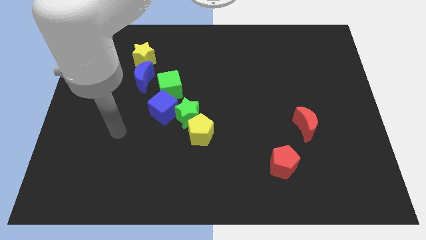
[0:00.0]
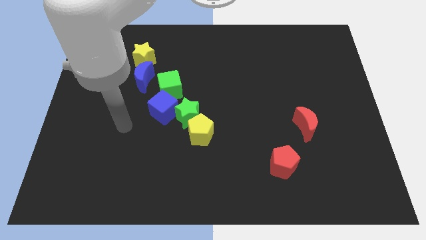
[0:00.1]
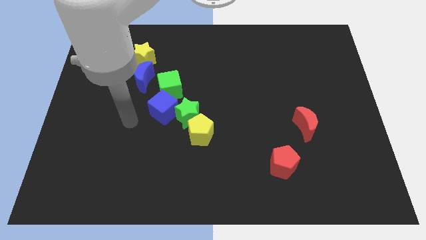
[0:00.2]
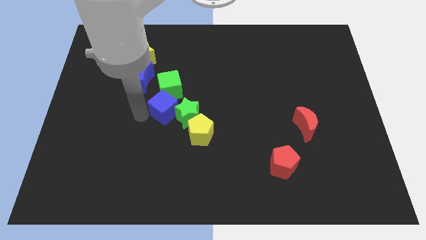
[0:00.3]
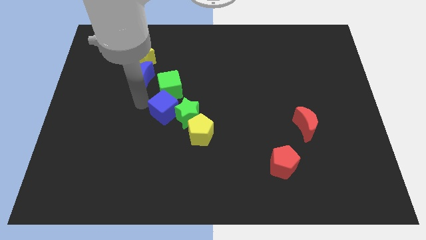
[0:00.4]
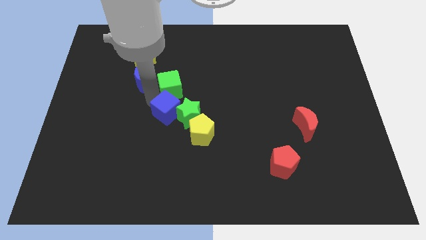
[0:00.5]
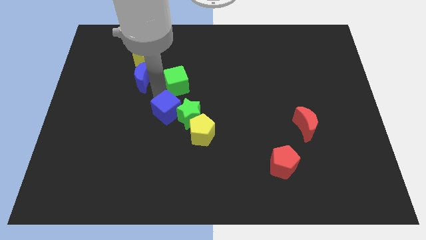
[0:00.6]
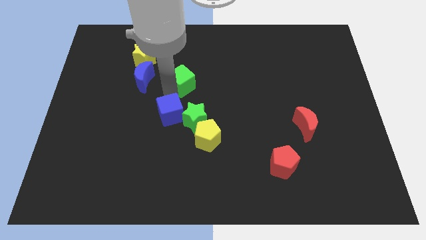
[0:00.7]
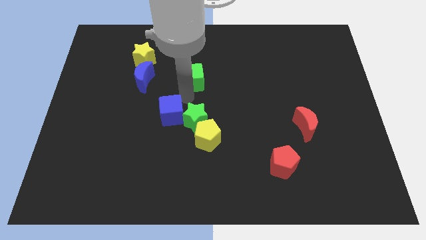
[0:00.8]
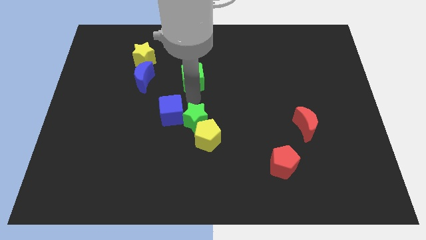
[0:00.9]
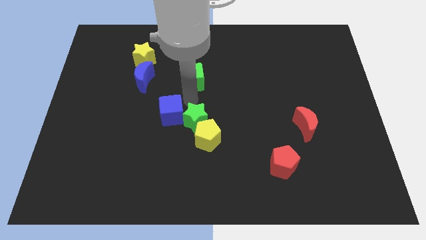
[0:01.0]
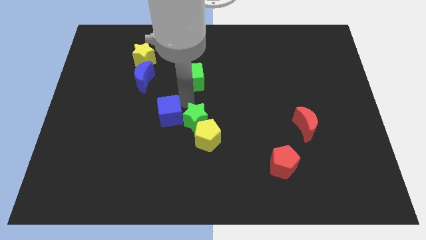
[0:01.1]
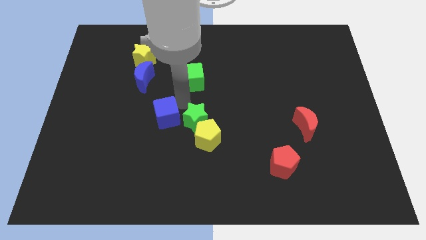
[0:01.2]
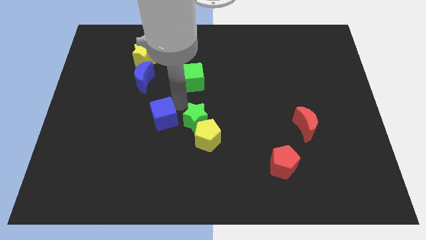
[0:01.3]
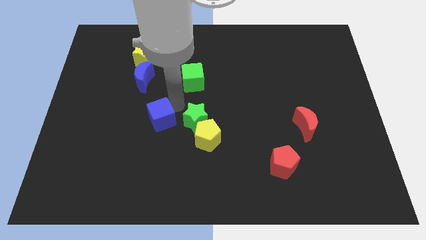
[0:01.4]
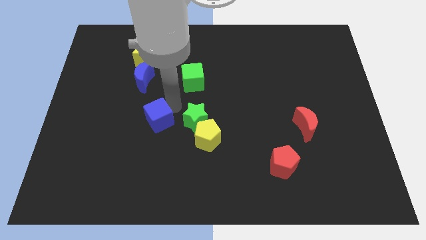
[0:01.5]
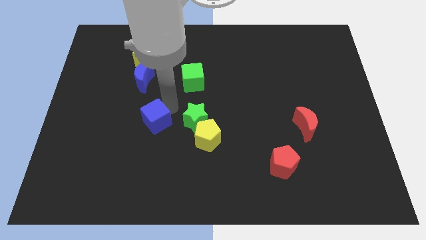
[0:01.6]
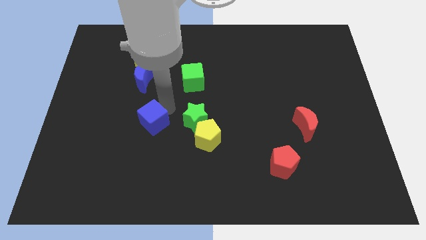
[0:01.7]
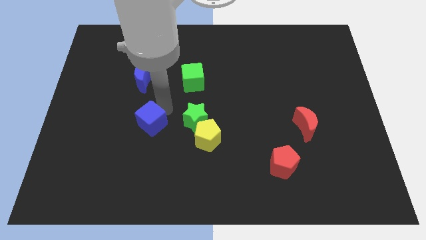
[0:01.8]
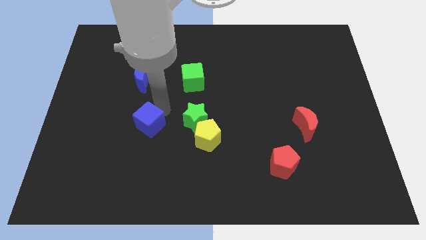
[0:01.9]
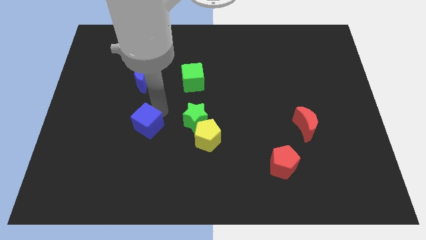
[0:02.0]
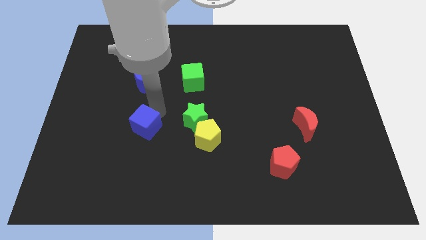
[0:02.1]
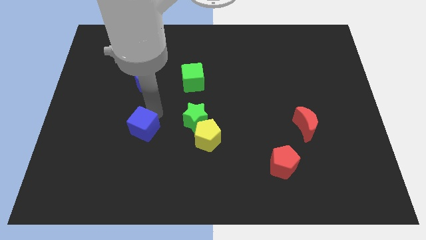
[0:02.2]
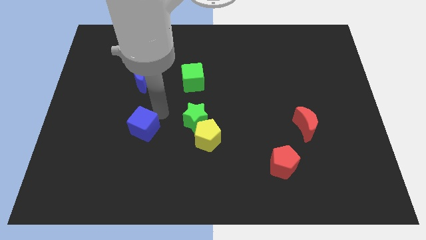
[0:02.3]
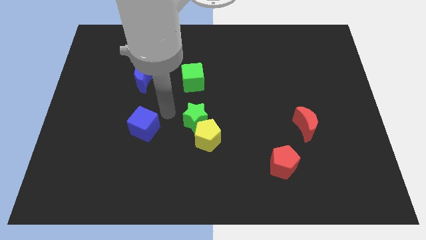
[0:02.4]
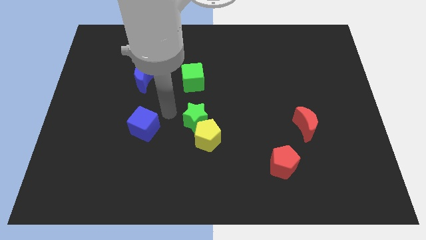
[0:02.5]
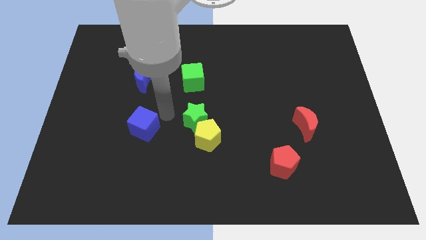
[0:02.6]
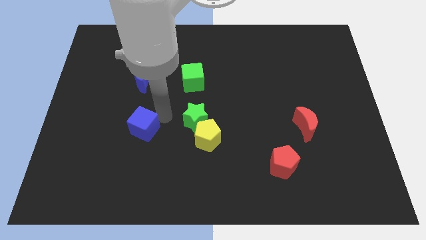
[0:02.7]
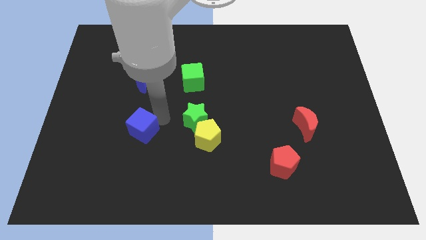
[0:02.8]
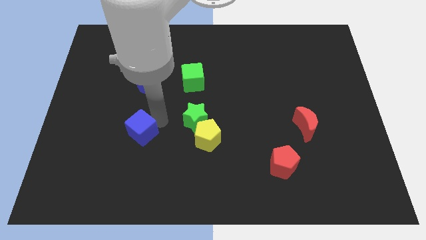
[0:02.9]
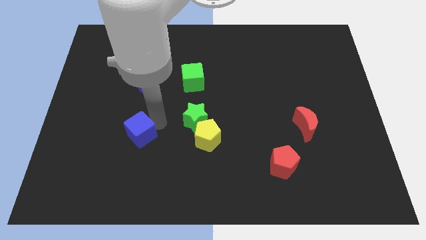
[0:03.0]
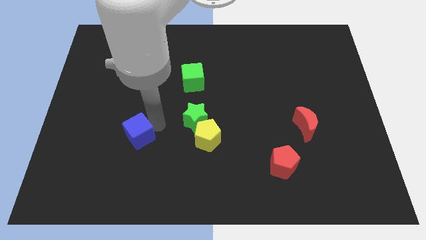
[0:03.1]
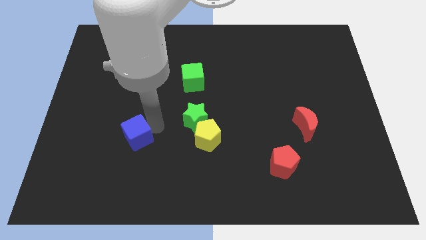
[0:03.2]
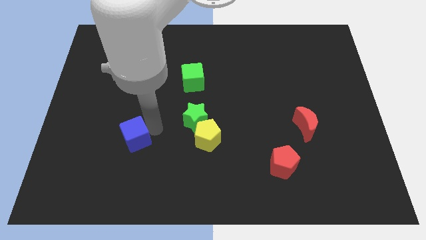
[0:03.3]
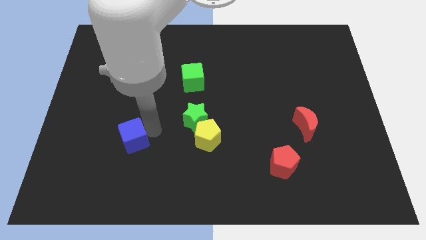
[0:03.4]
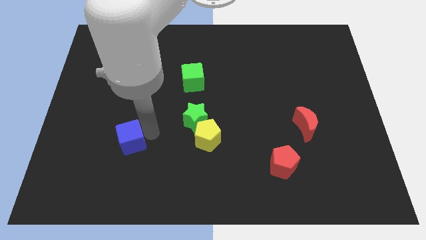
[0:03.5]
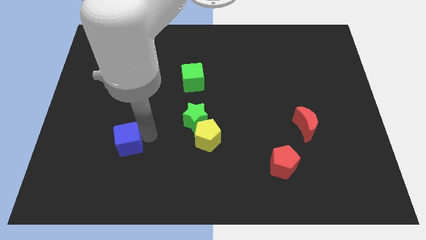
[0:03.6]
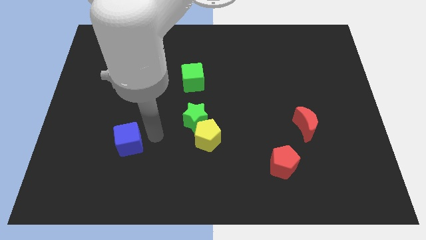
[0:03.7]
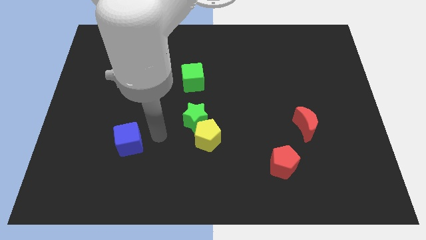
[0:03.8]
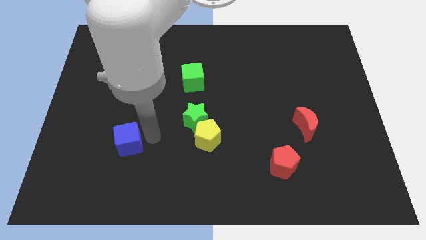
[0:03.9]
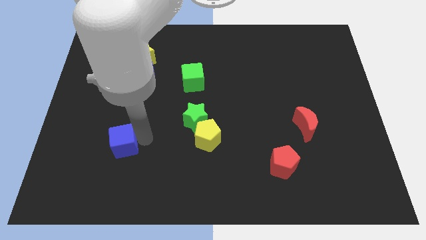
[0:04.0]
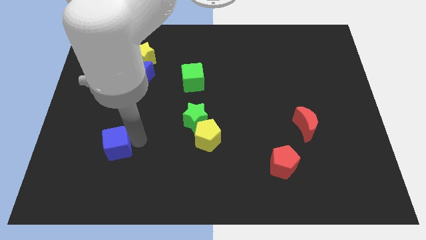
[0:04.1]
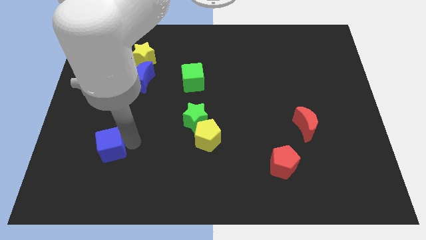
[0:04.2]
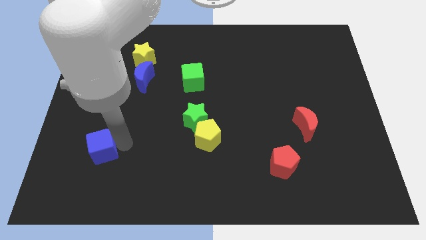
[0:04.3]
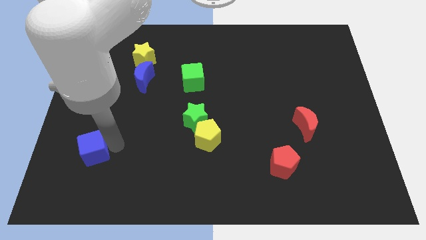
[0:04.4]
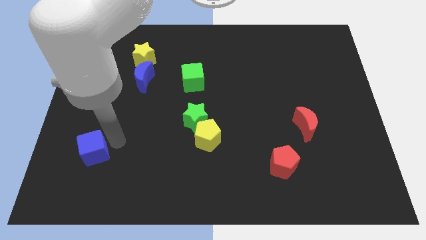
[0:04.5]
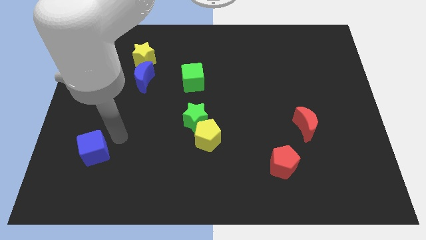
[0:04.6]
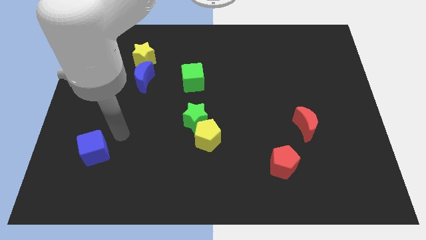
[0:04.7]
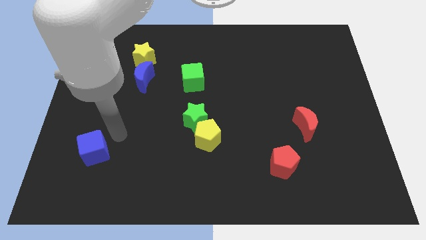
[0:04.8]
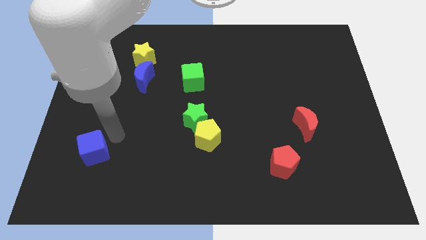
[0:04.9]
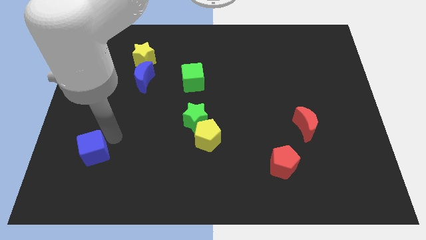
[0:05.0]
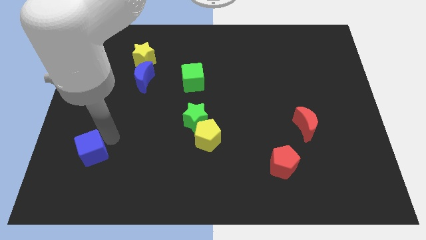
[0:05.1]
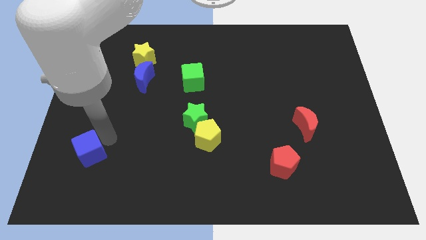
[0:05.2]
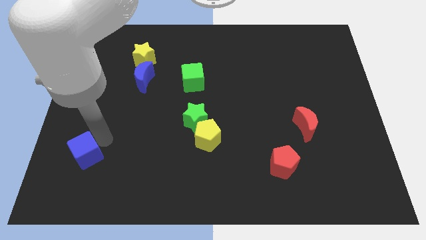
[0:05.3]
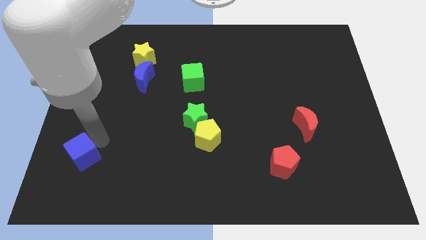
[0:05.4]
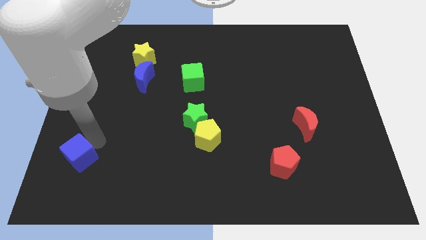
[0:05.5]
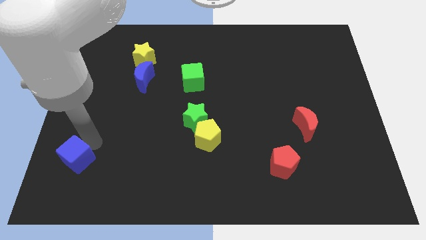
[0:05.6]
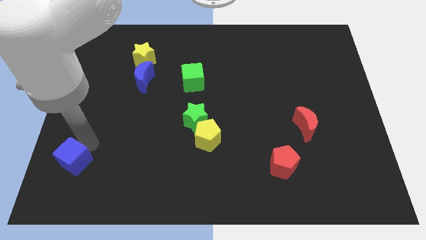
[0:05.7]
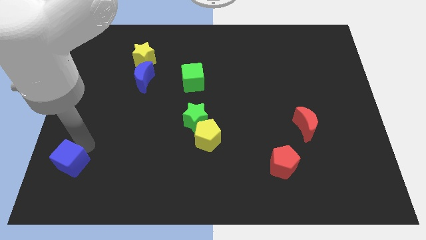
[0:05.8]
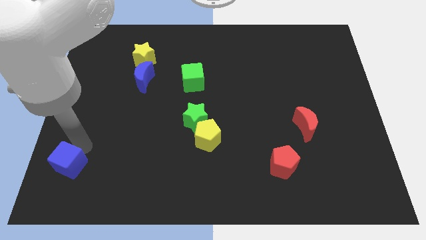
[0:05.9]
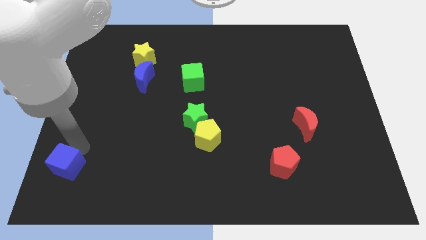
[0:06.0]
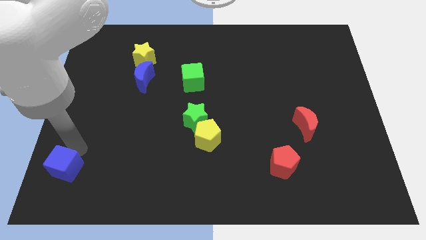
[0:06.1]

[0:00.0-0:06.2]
push the blue cube to the bottom left
